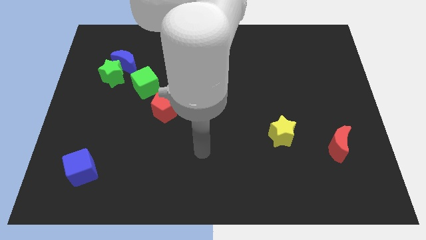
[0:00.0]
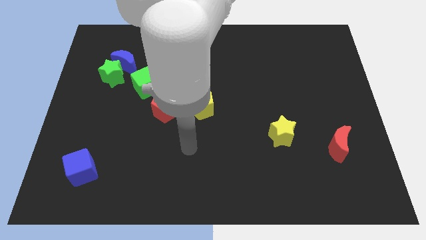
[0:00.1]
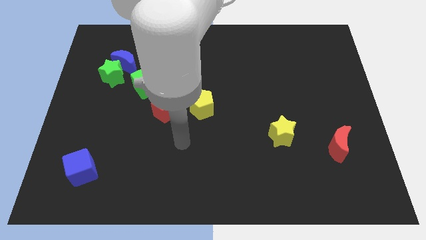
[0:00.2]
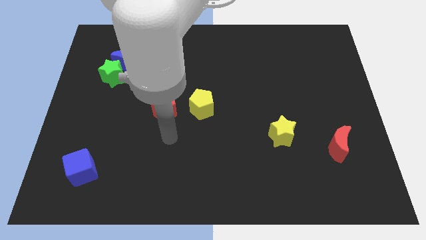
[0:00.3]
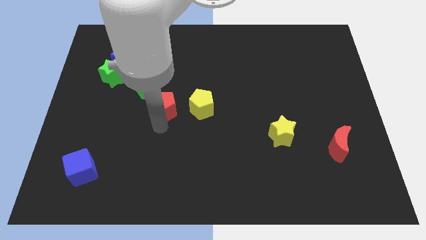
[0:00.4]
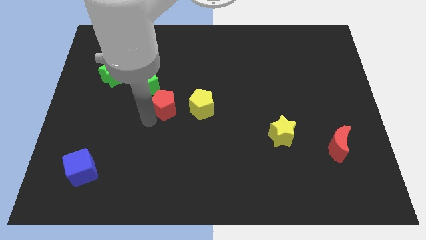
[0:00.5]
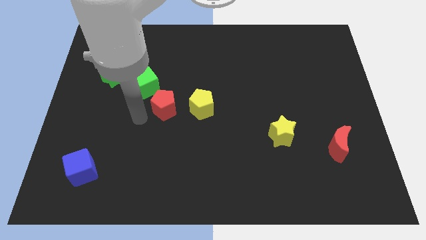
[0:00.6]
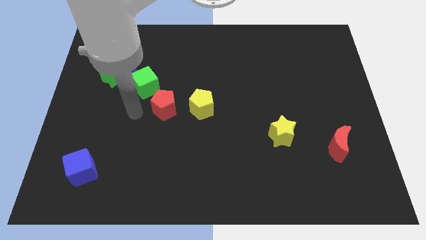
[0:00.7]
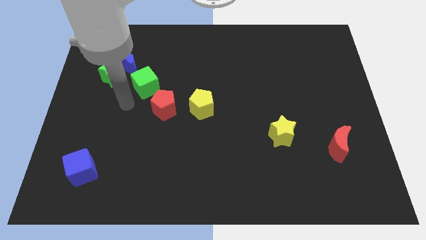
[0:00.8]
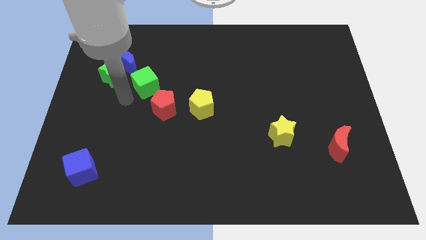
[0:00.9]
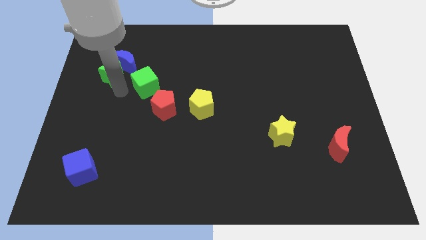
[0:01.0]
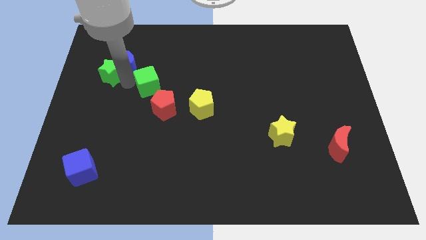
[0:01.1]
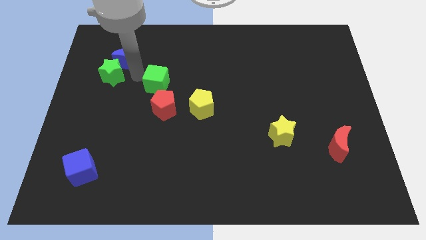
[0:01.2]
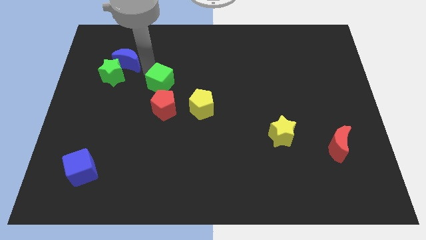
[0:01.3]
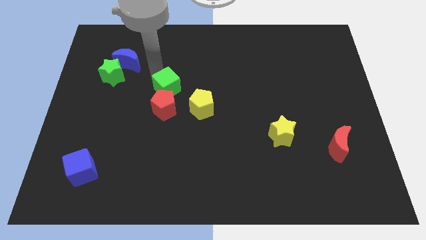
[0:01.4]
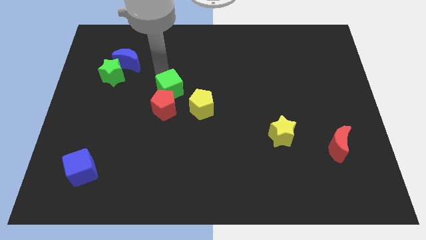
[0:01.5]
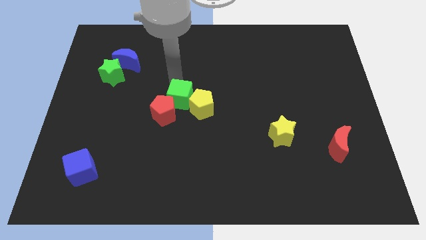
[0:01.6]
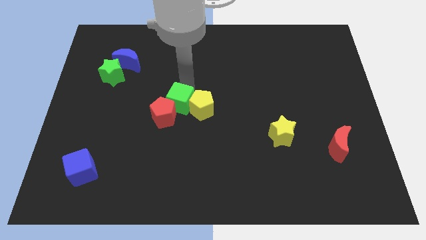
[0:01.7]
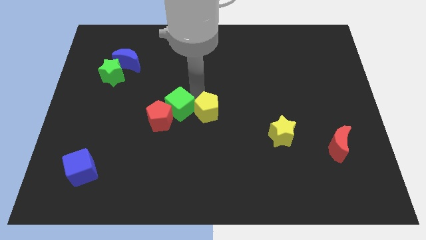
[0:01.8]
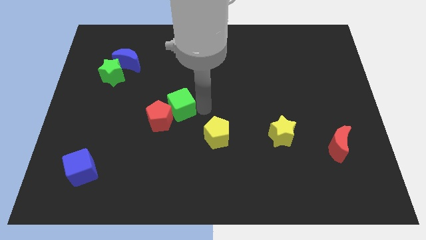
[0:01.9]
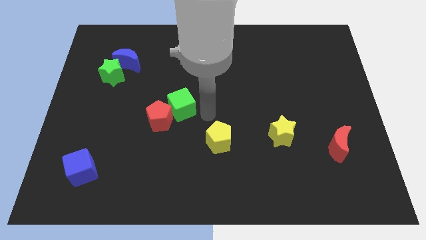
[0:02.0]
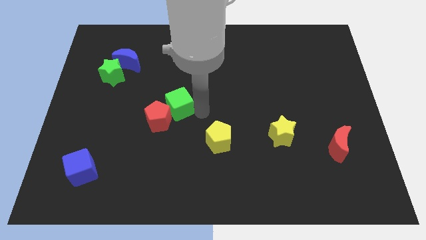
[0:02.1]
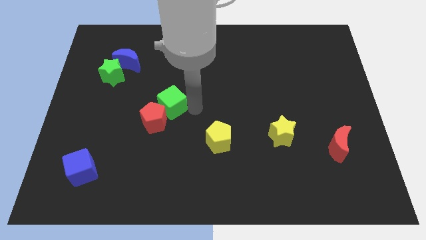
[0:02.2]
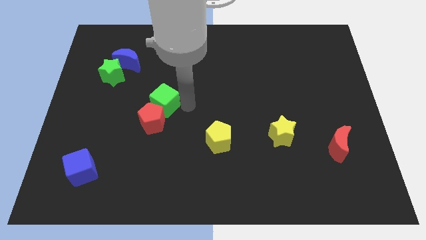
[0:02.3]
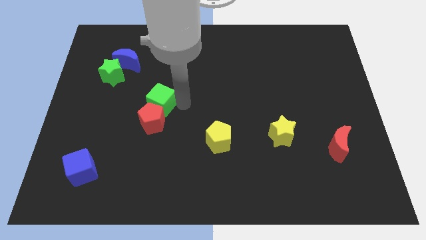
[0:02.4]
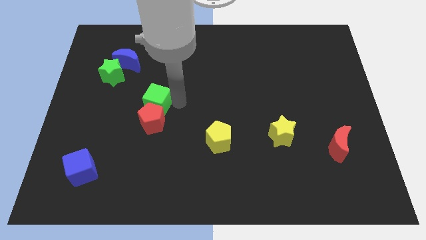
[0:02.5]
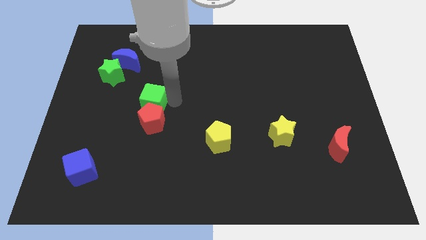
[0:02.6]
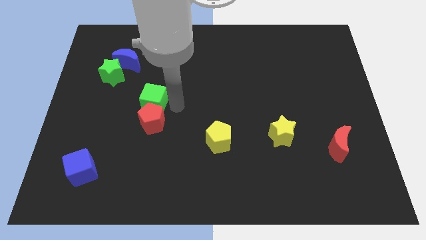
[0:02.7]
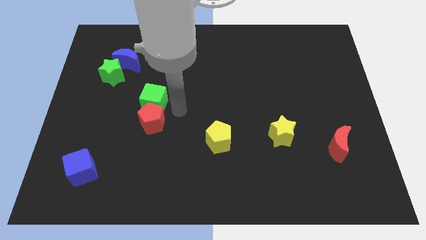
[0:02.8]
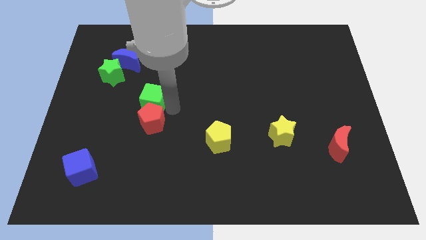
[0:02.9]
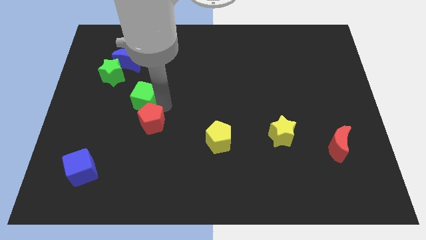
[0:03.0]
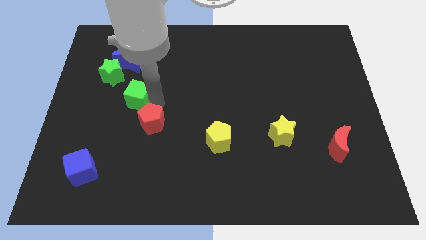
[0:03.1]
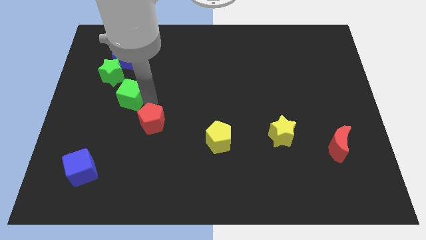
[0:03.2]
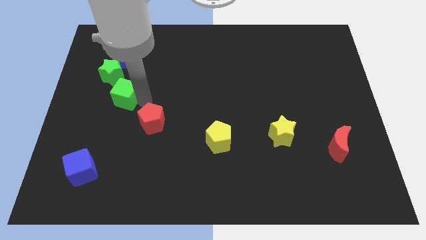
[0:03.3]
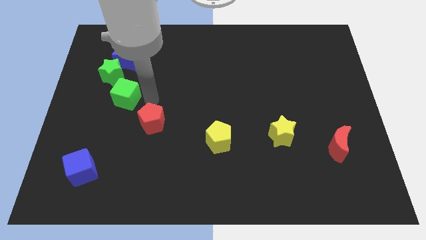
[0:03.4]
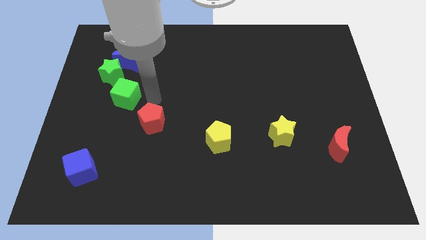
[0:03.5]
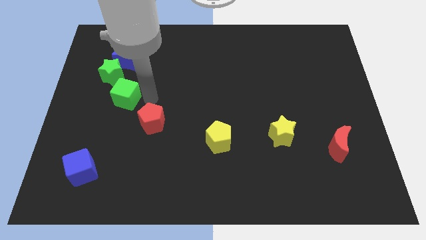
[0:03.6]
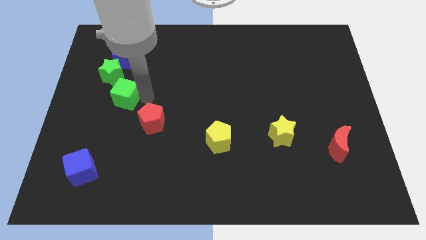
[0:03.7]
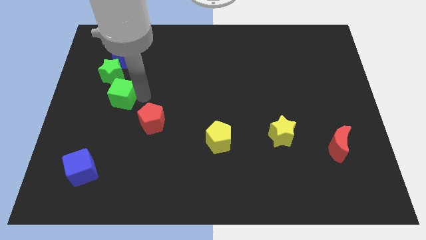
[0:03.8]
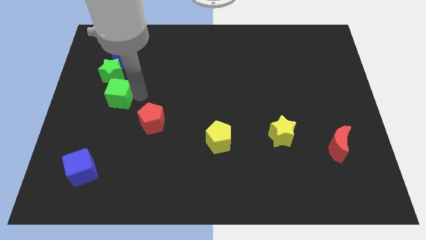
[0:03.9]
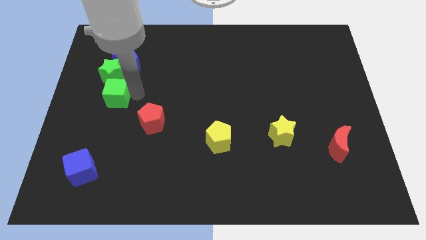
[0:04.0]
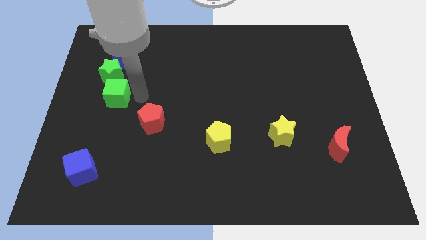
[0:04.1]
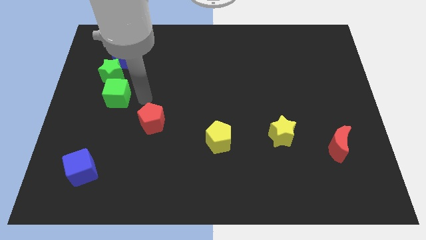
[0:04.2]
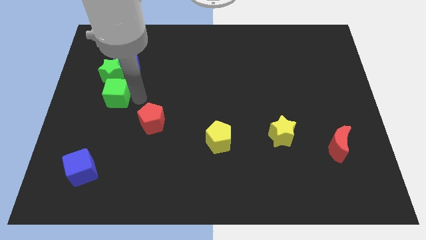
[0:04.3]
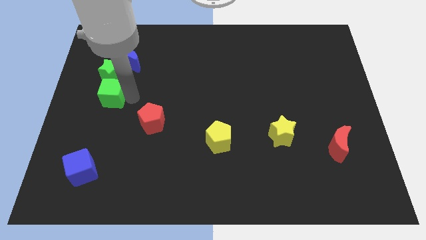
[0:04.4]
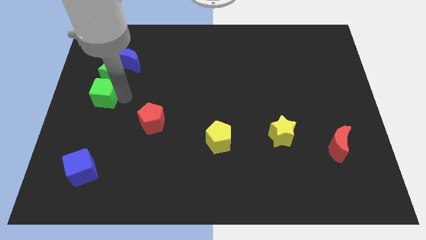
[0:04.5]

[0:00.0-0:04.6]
put the green cube to the center left

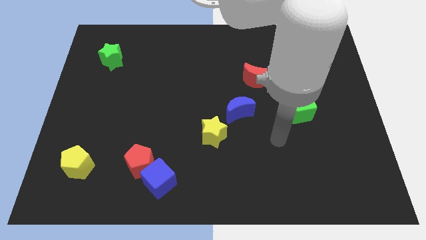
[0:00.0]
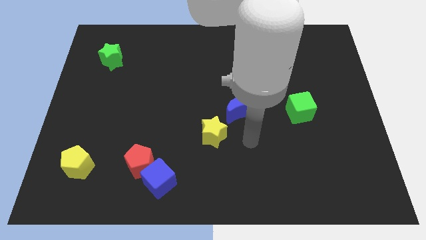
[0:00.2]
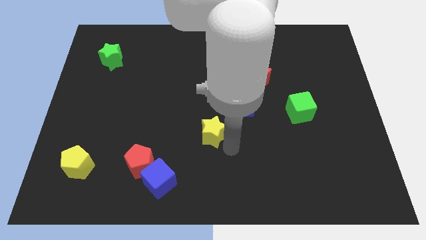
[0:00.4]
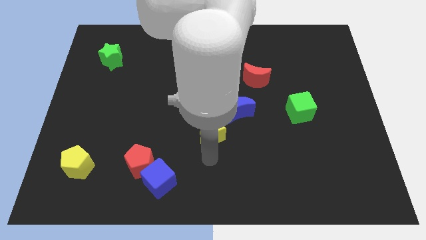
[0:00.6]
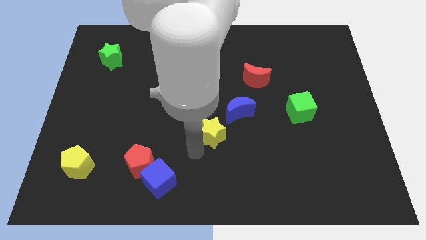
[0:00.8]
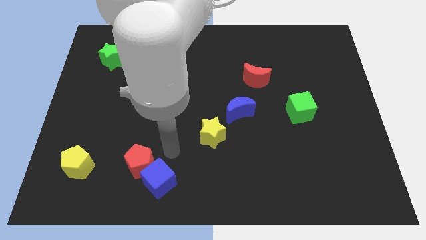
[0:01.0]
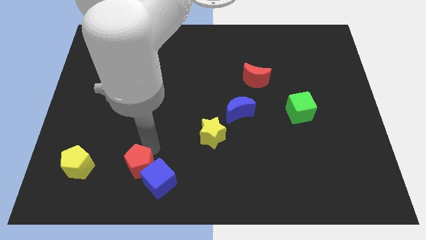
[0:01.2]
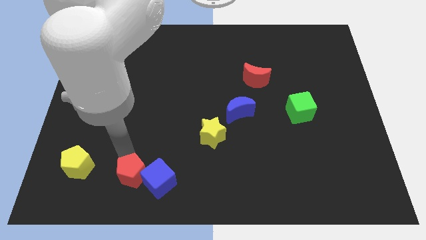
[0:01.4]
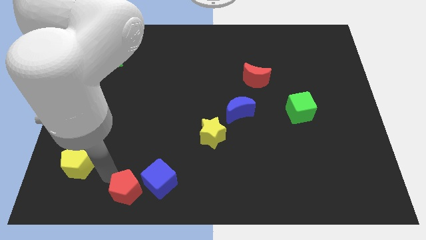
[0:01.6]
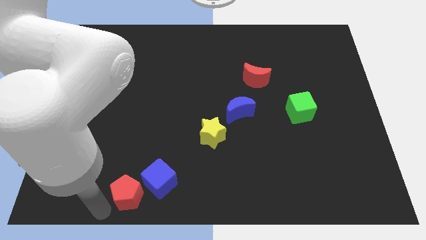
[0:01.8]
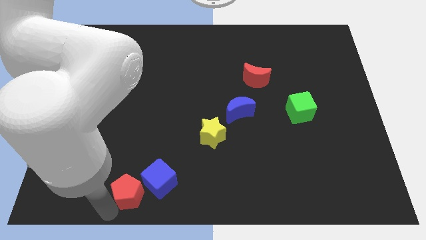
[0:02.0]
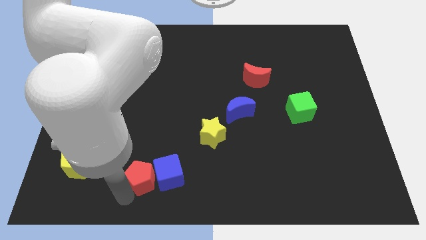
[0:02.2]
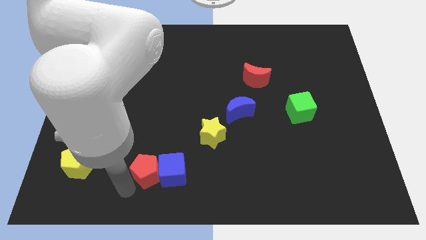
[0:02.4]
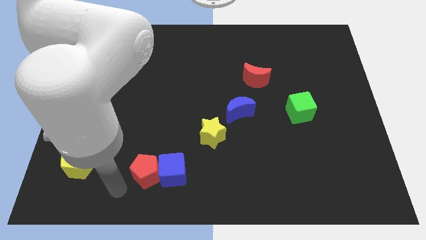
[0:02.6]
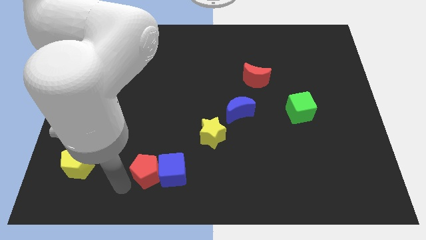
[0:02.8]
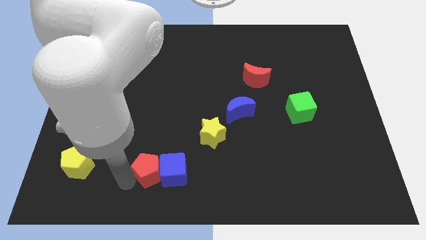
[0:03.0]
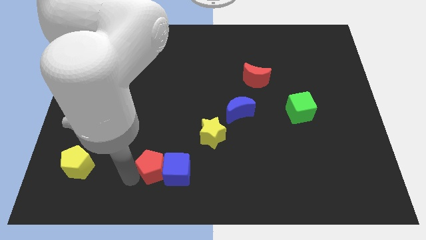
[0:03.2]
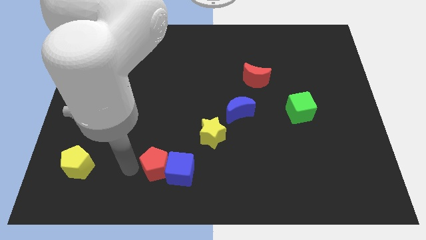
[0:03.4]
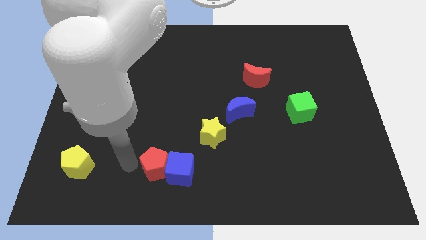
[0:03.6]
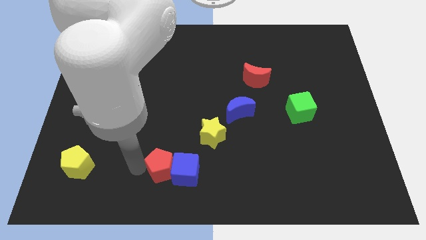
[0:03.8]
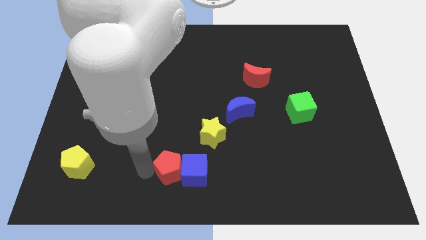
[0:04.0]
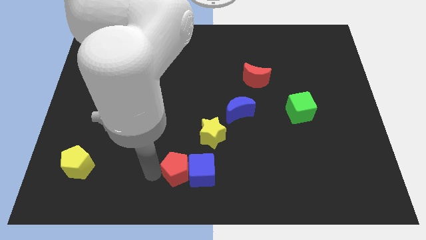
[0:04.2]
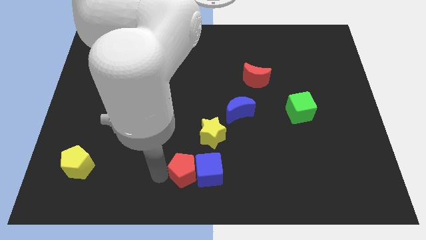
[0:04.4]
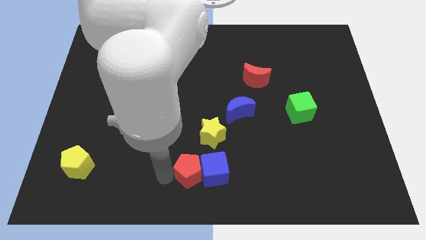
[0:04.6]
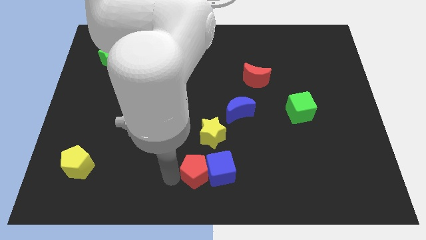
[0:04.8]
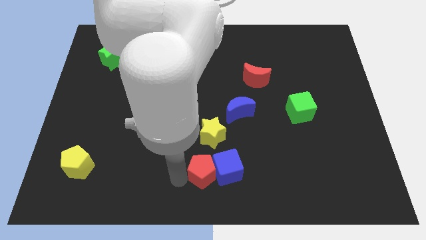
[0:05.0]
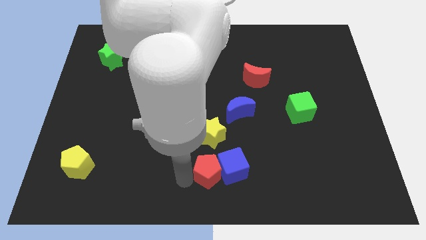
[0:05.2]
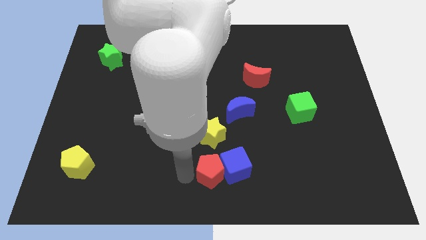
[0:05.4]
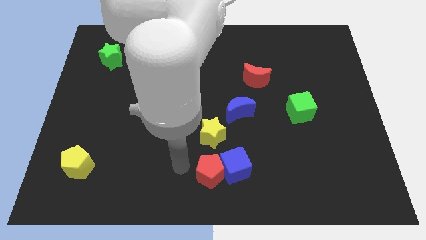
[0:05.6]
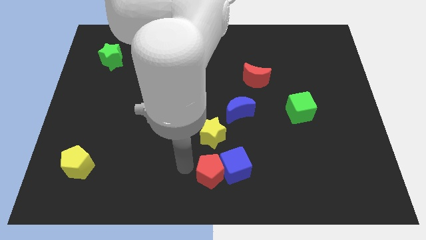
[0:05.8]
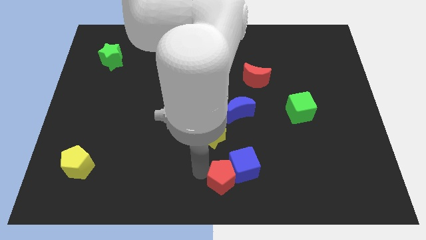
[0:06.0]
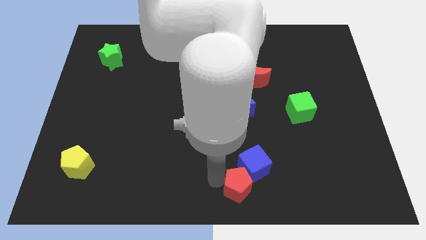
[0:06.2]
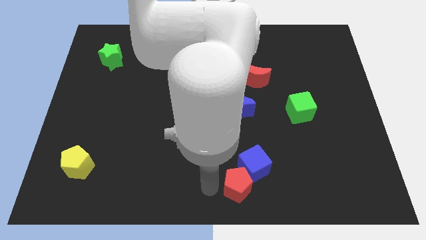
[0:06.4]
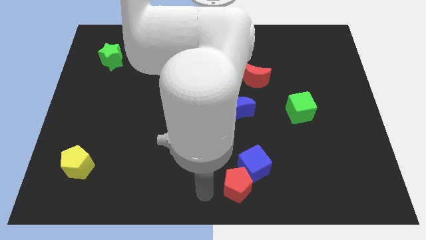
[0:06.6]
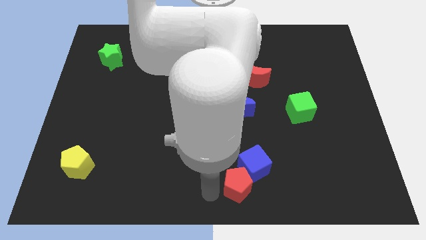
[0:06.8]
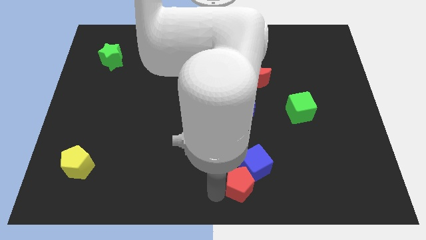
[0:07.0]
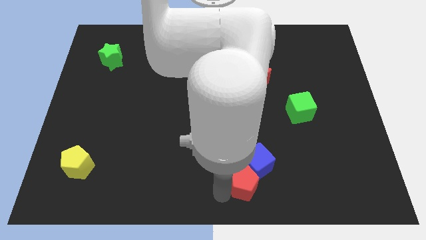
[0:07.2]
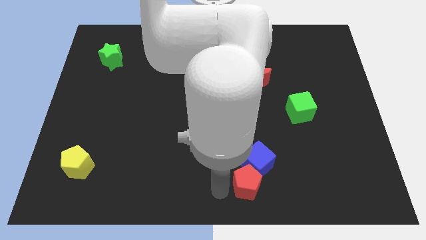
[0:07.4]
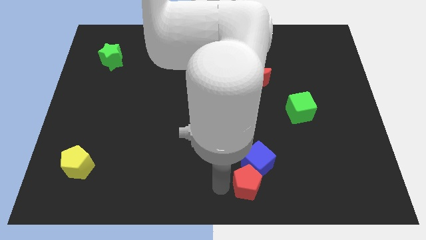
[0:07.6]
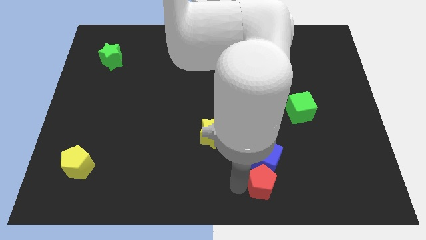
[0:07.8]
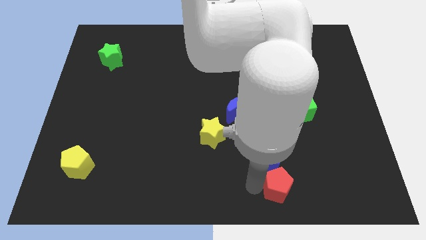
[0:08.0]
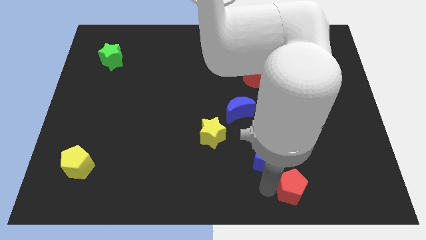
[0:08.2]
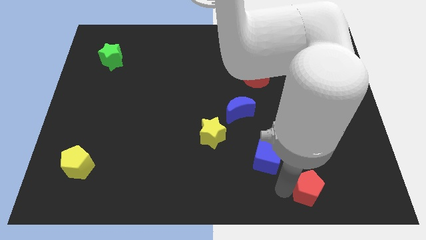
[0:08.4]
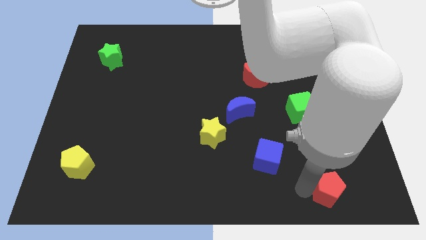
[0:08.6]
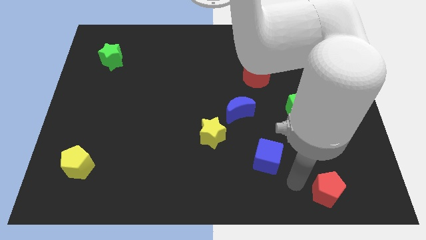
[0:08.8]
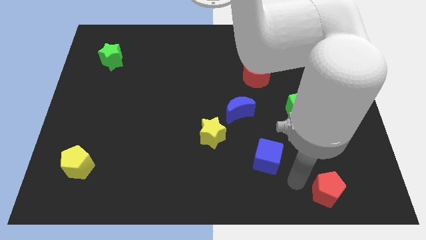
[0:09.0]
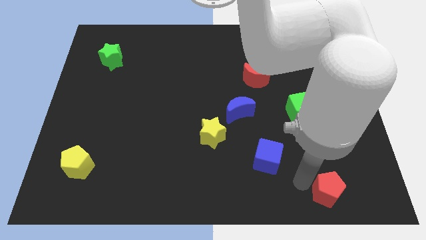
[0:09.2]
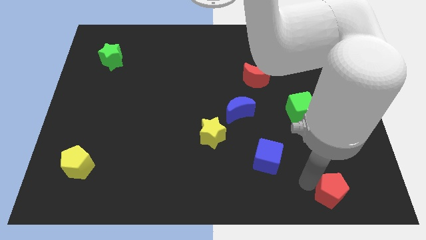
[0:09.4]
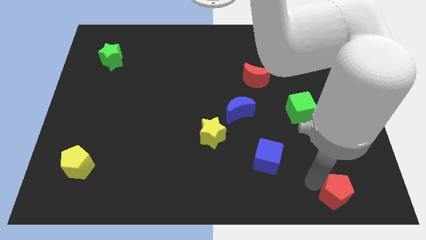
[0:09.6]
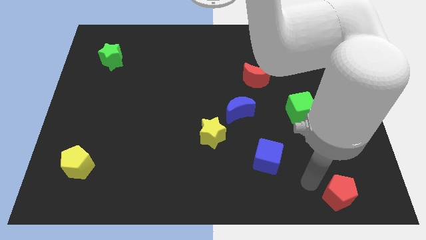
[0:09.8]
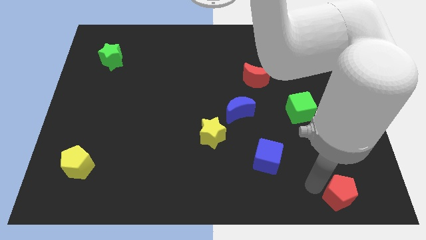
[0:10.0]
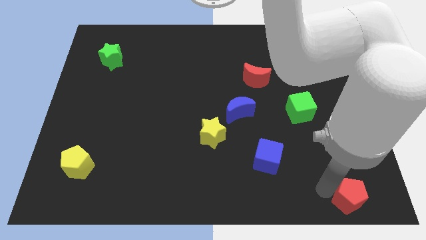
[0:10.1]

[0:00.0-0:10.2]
put the red pentagon to the bottom right
